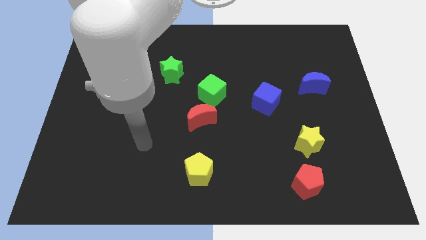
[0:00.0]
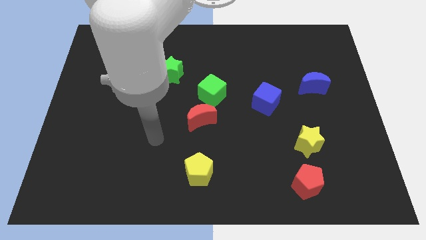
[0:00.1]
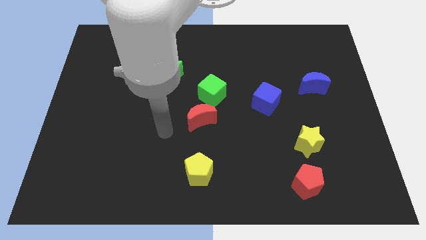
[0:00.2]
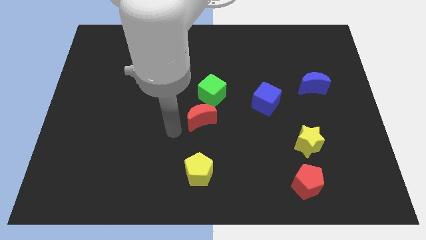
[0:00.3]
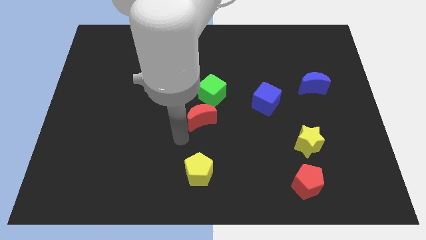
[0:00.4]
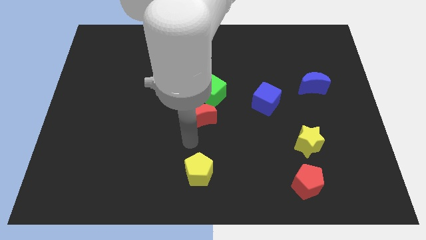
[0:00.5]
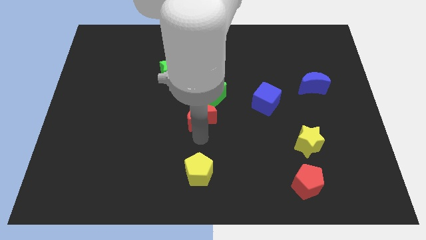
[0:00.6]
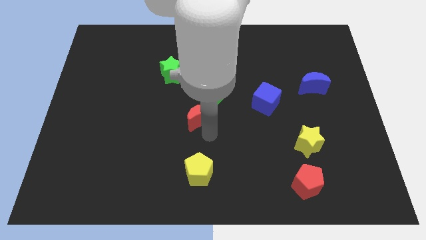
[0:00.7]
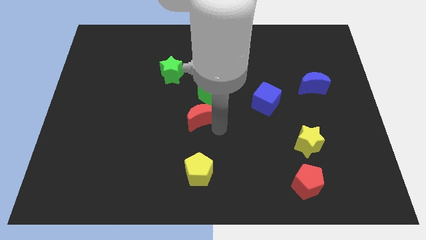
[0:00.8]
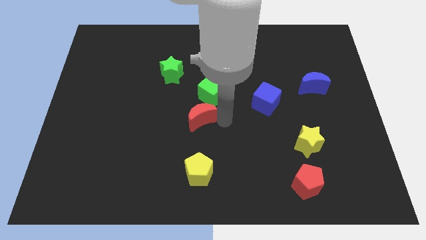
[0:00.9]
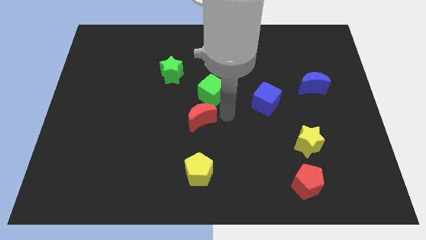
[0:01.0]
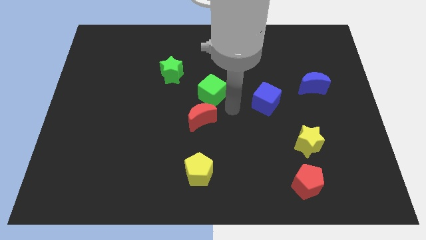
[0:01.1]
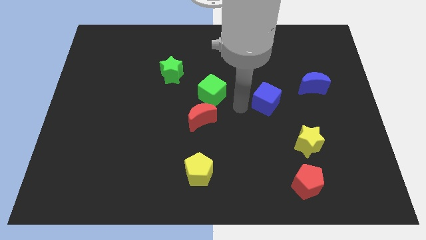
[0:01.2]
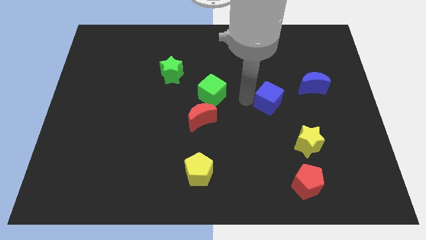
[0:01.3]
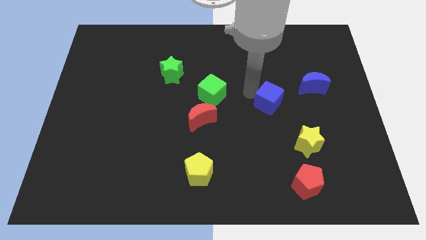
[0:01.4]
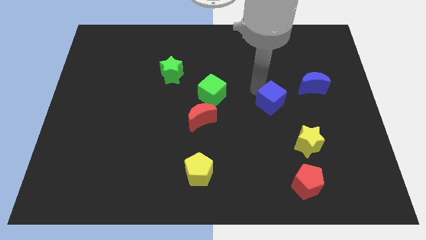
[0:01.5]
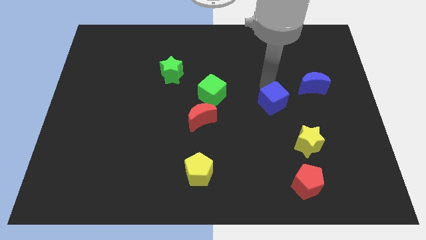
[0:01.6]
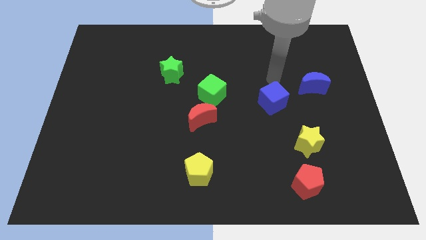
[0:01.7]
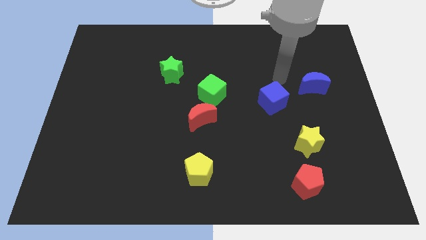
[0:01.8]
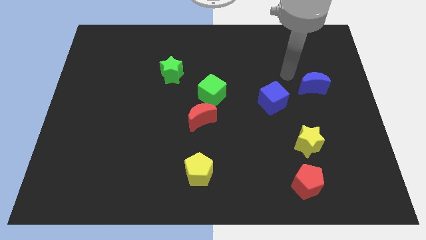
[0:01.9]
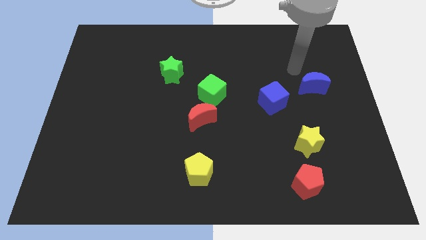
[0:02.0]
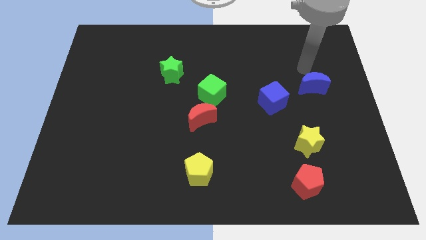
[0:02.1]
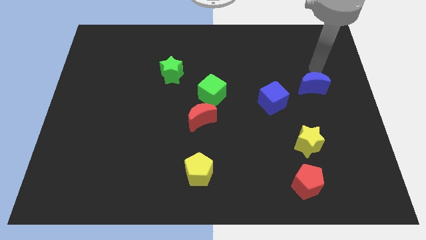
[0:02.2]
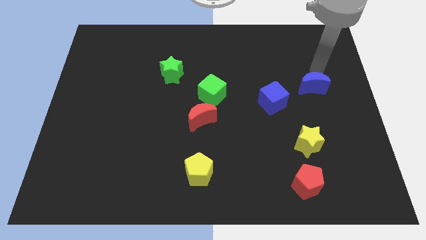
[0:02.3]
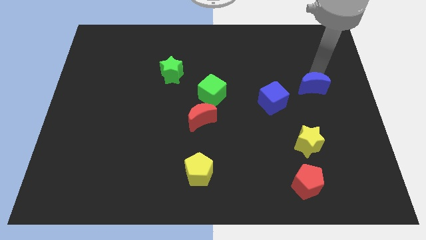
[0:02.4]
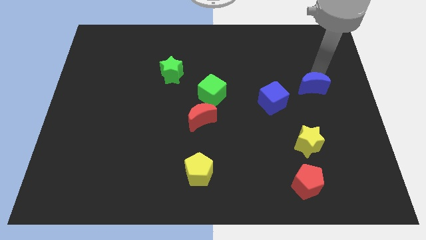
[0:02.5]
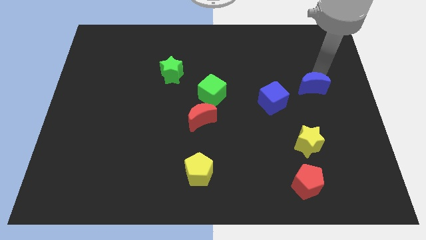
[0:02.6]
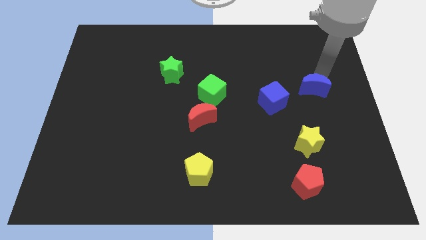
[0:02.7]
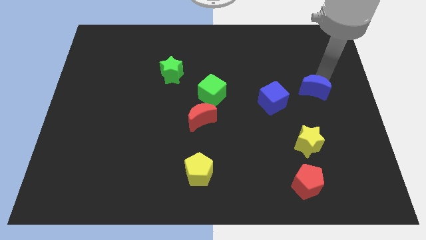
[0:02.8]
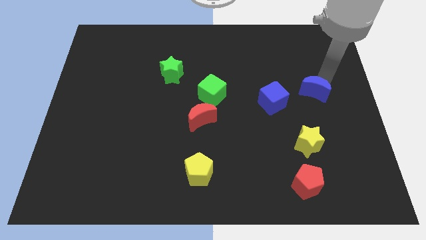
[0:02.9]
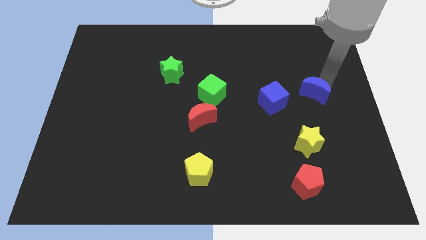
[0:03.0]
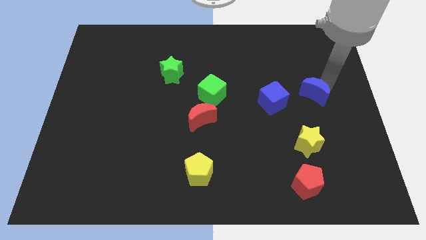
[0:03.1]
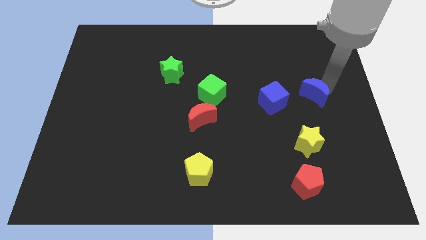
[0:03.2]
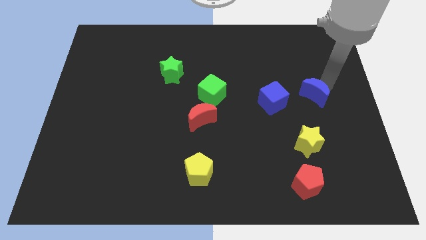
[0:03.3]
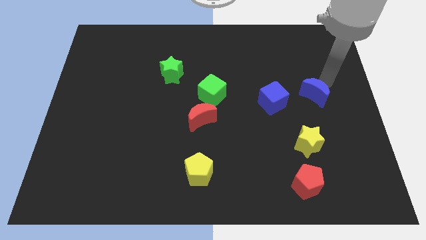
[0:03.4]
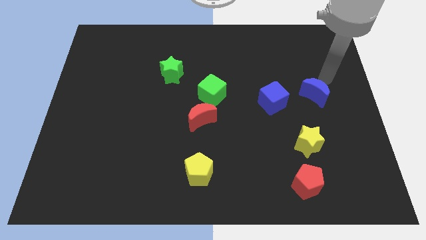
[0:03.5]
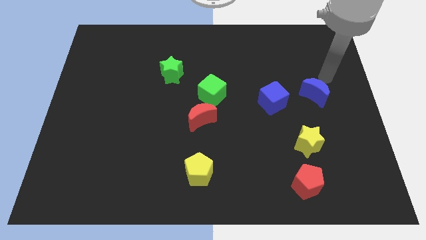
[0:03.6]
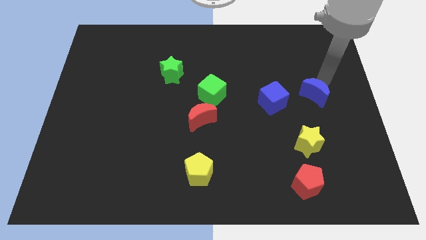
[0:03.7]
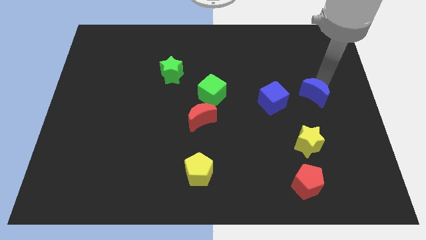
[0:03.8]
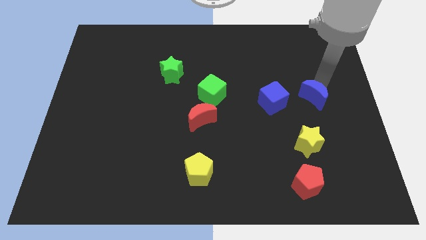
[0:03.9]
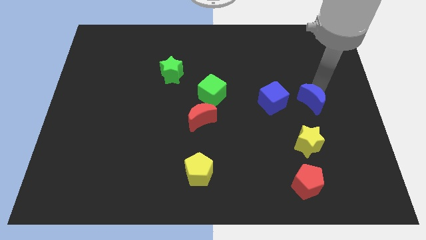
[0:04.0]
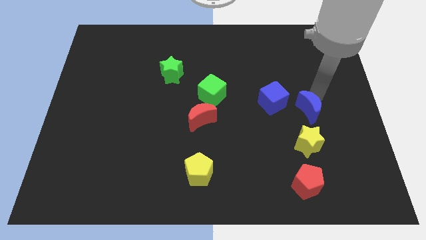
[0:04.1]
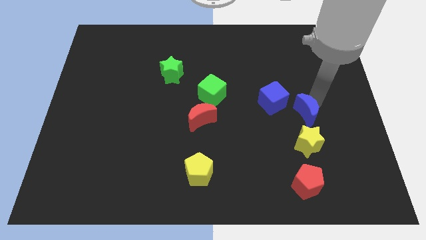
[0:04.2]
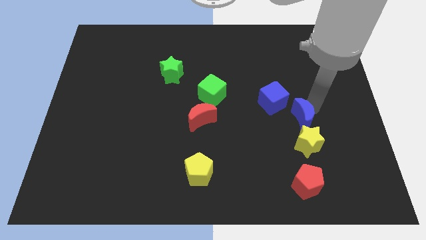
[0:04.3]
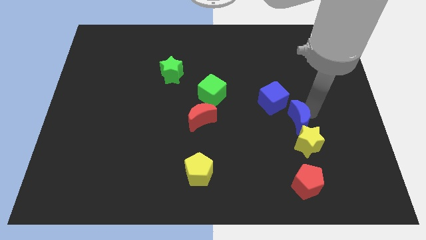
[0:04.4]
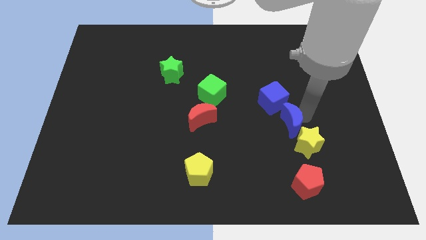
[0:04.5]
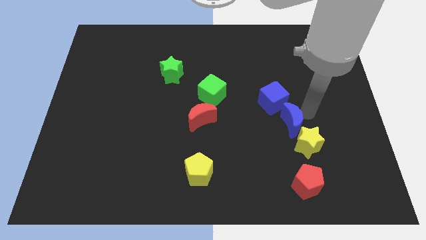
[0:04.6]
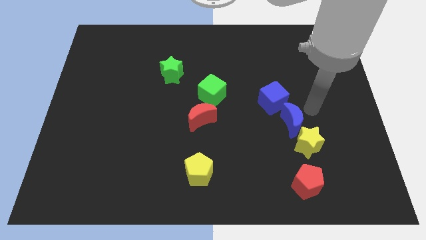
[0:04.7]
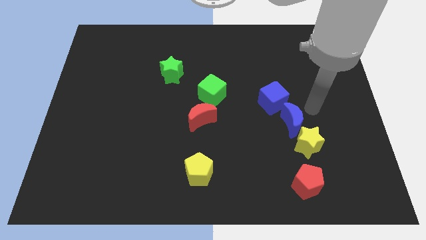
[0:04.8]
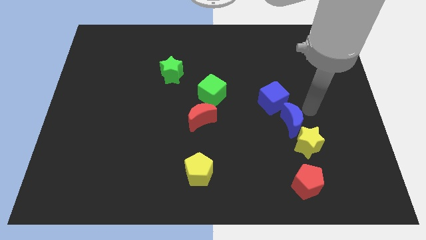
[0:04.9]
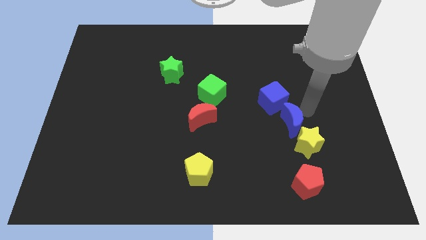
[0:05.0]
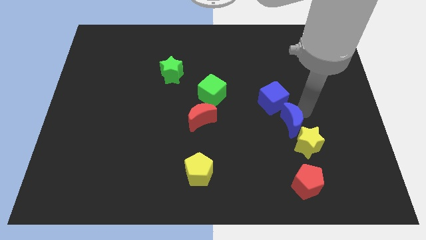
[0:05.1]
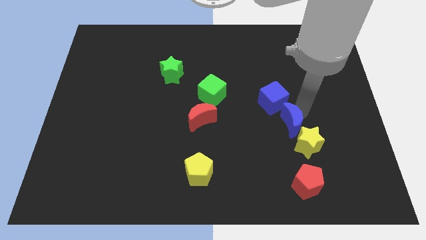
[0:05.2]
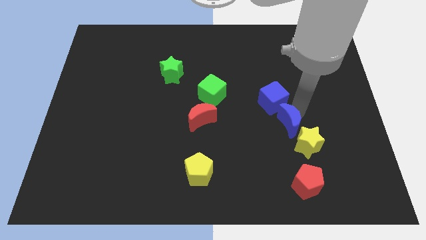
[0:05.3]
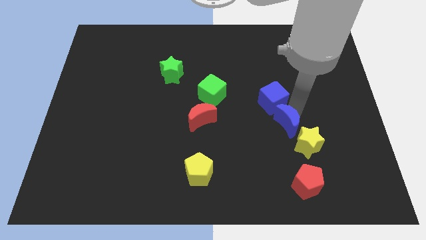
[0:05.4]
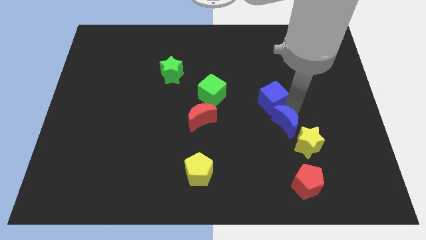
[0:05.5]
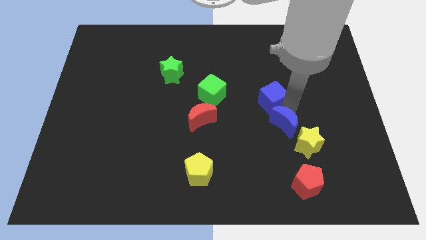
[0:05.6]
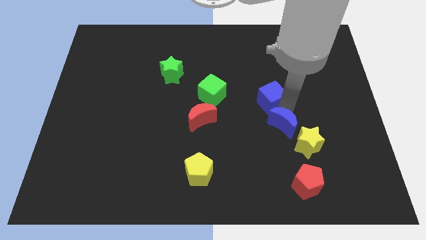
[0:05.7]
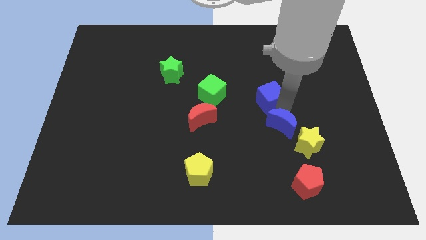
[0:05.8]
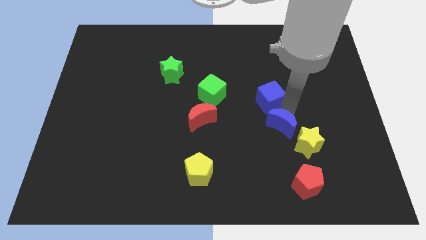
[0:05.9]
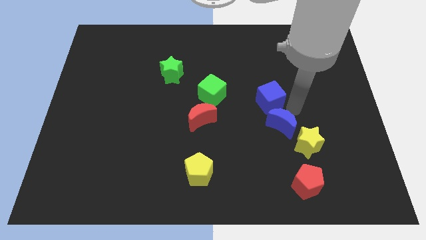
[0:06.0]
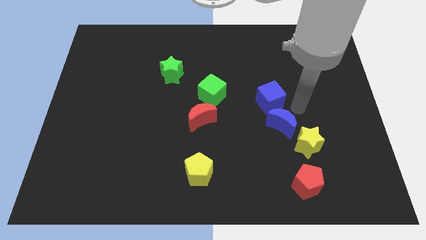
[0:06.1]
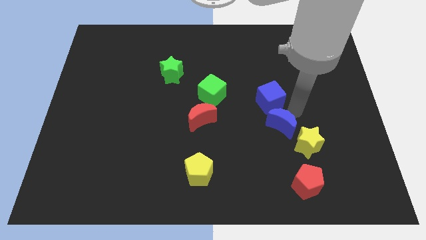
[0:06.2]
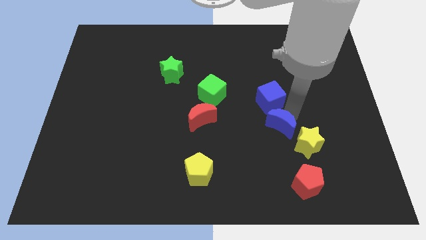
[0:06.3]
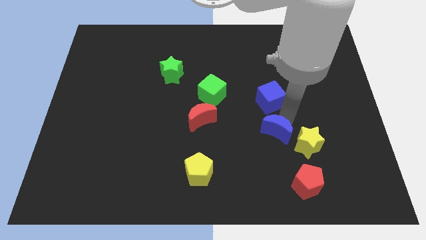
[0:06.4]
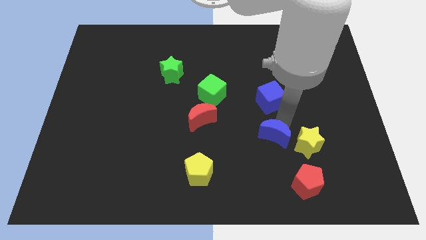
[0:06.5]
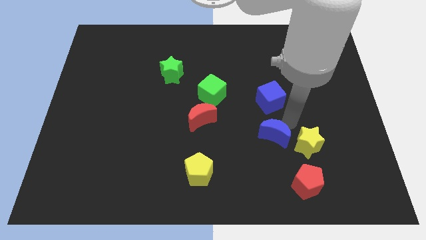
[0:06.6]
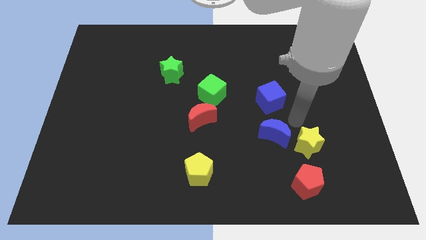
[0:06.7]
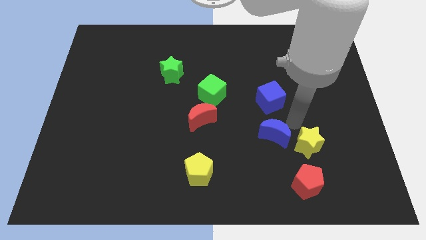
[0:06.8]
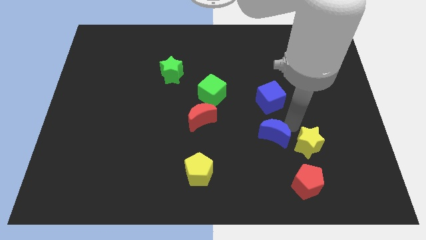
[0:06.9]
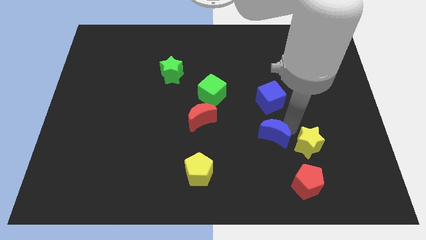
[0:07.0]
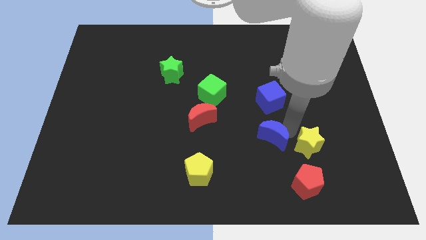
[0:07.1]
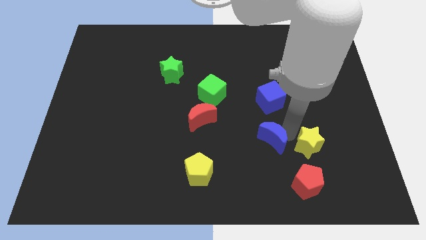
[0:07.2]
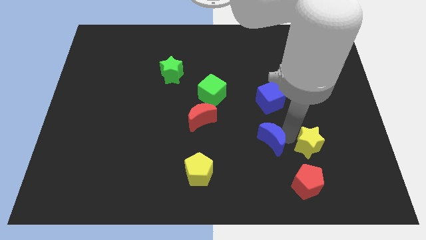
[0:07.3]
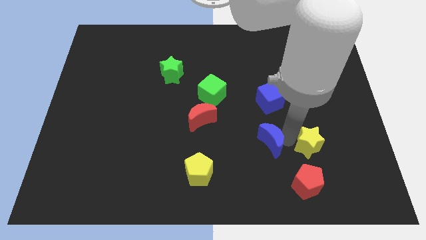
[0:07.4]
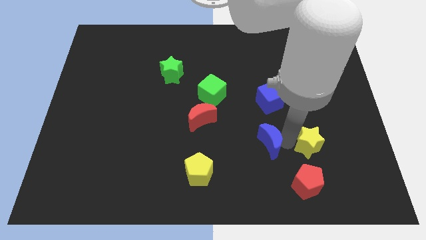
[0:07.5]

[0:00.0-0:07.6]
move the blue moon downwards and to the left diagonally

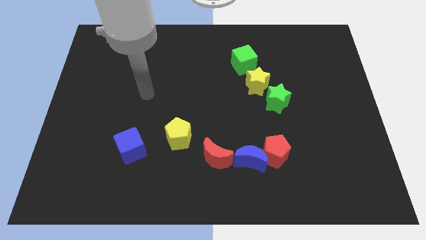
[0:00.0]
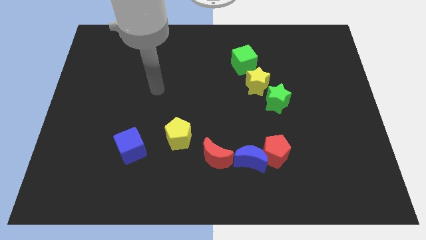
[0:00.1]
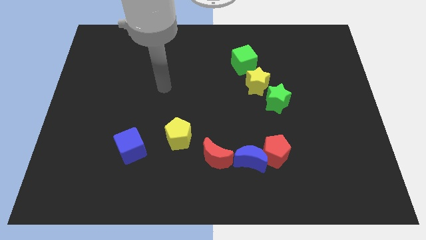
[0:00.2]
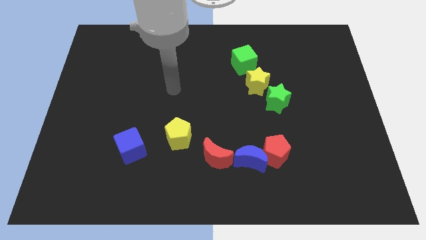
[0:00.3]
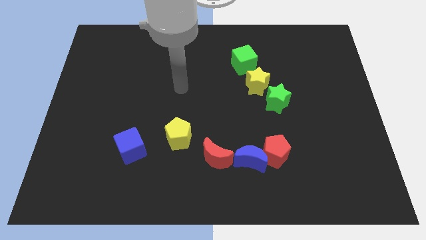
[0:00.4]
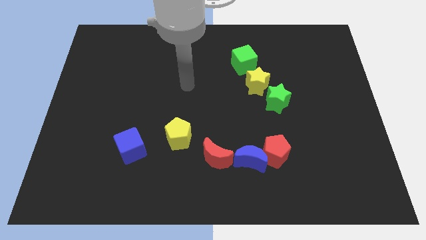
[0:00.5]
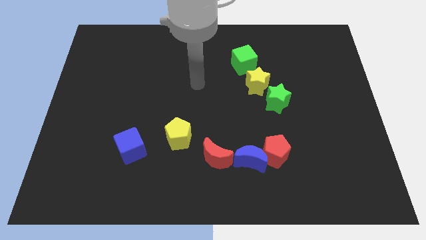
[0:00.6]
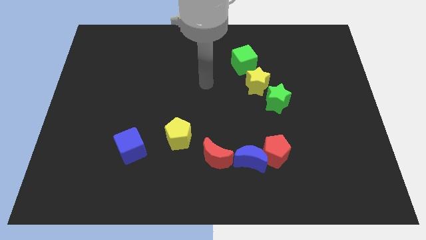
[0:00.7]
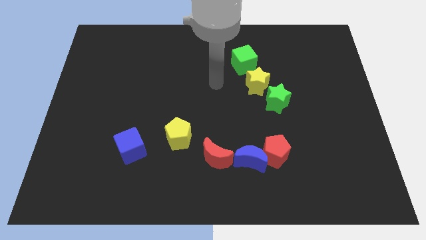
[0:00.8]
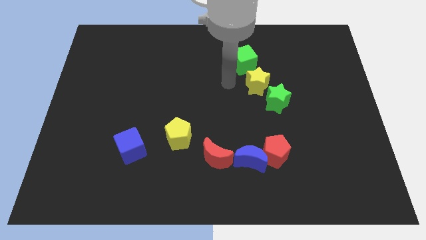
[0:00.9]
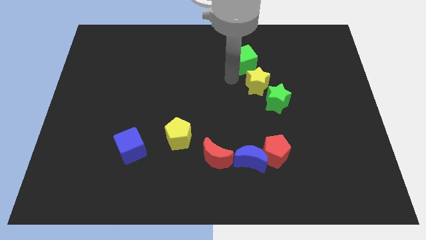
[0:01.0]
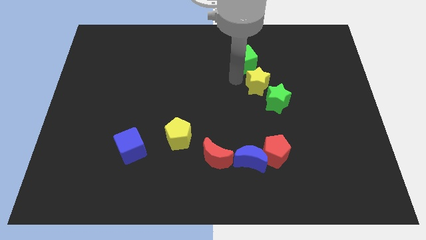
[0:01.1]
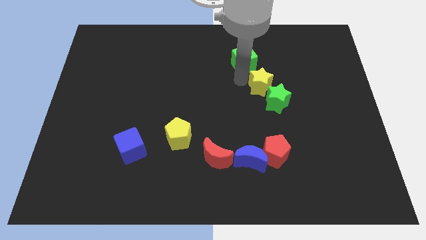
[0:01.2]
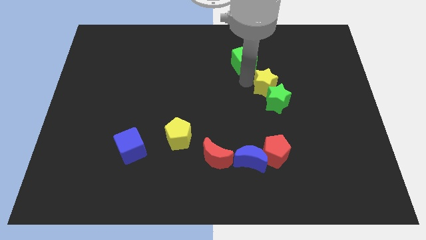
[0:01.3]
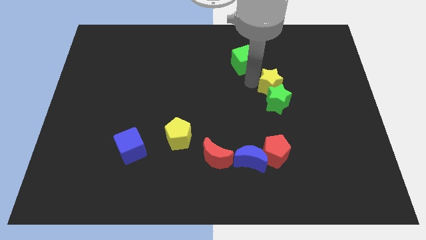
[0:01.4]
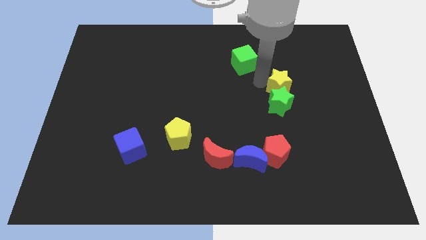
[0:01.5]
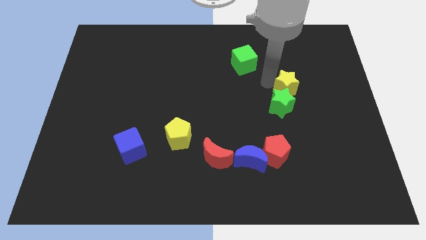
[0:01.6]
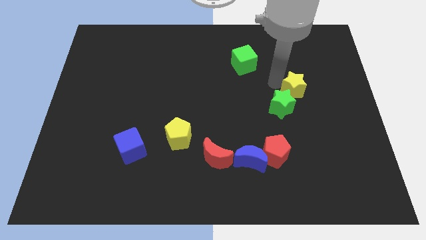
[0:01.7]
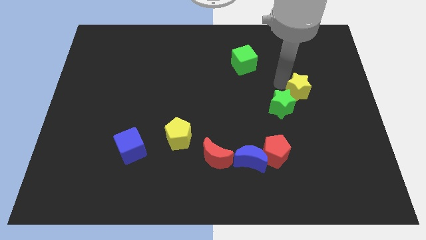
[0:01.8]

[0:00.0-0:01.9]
slightly slide the yellow star downwards and right diagonally
